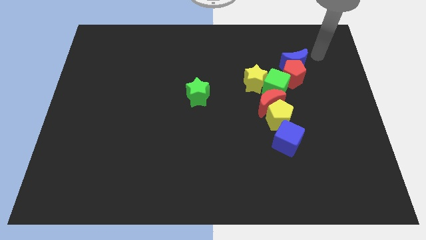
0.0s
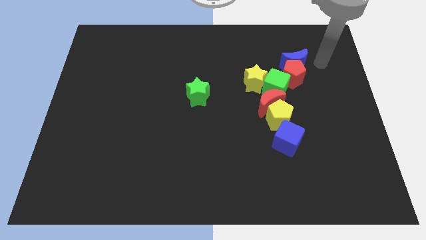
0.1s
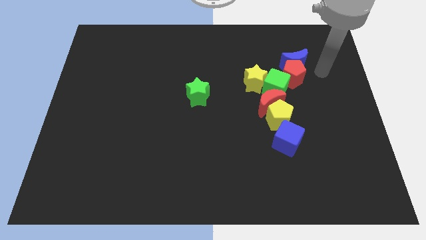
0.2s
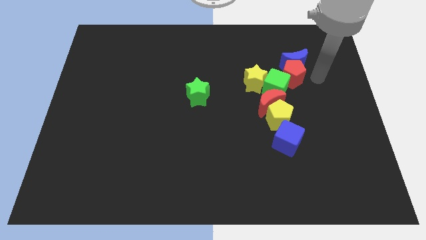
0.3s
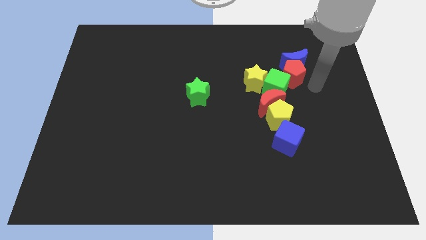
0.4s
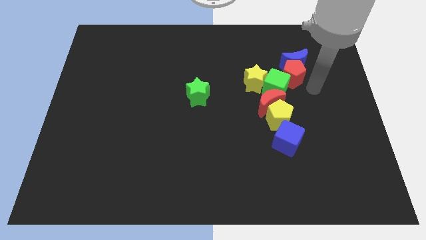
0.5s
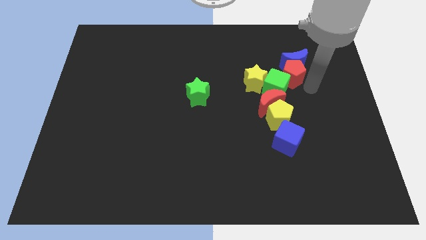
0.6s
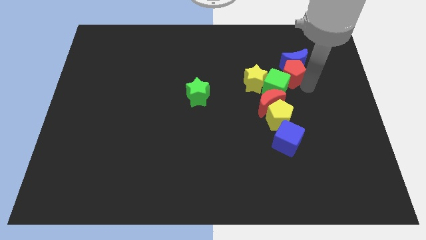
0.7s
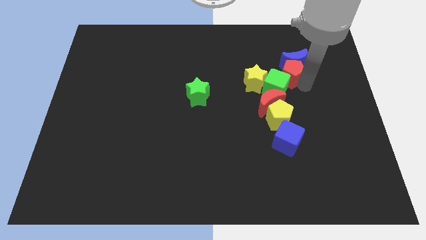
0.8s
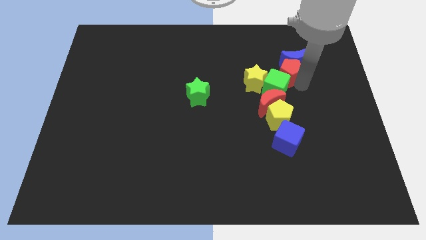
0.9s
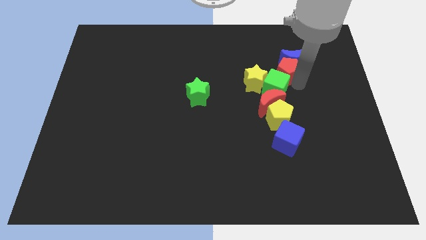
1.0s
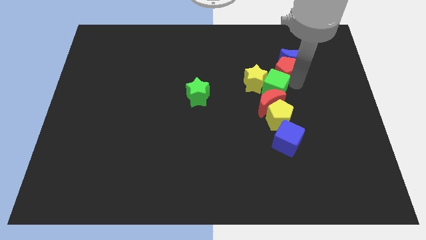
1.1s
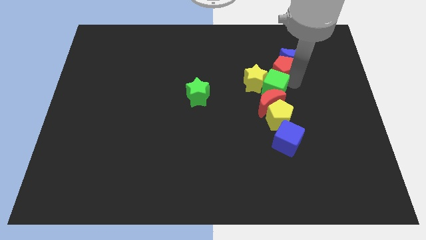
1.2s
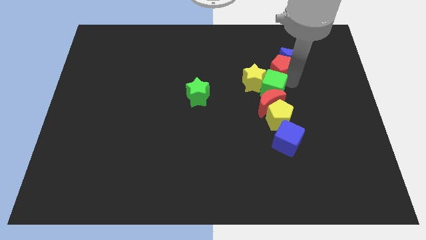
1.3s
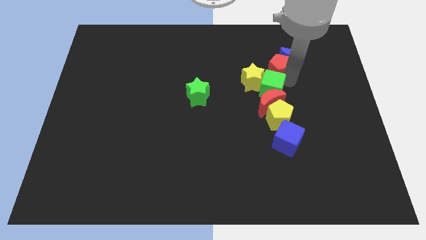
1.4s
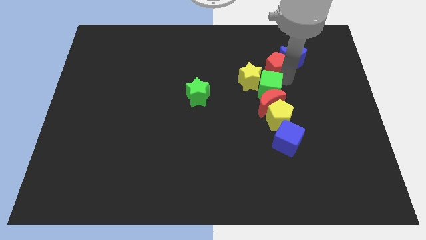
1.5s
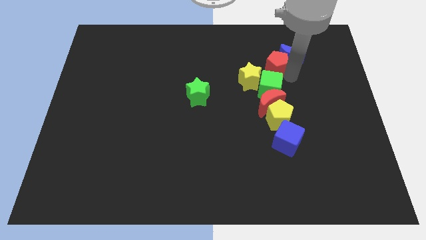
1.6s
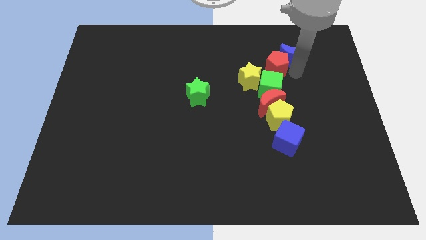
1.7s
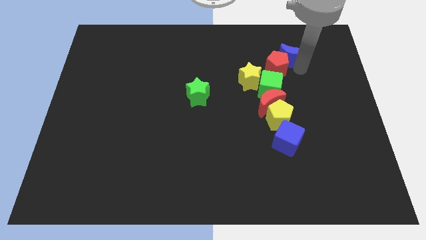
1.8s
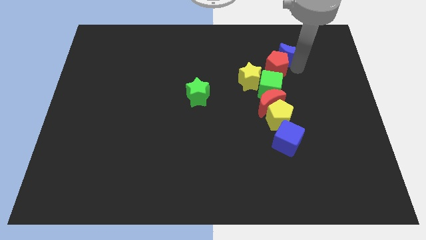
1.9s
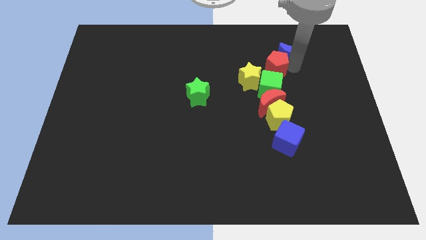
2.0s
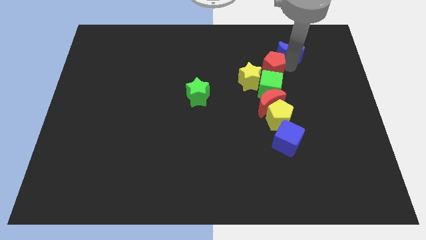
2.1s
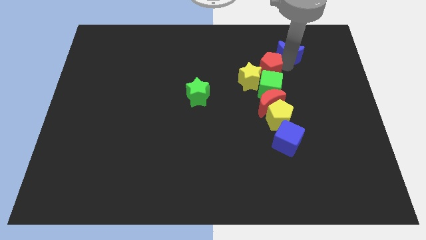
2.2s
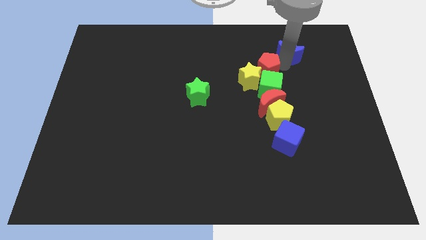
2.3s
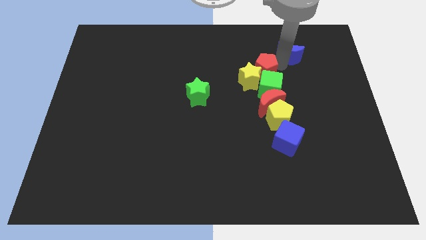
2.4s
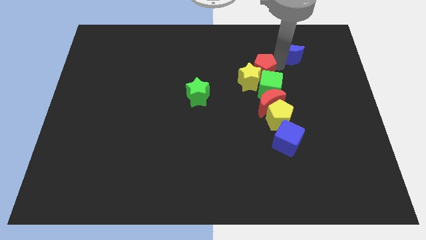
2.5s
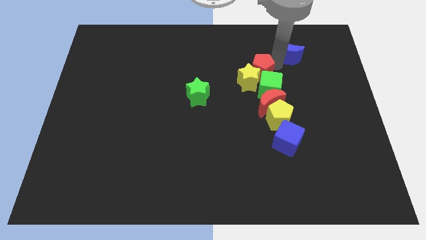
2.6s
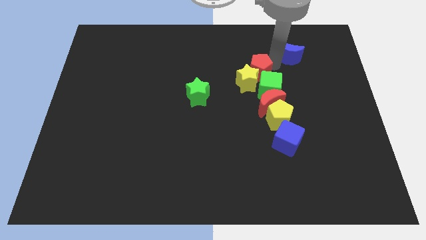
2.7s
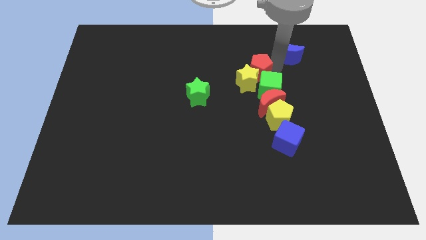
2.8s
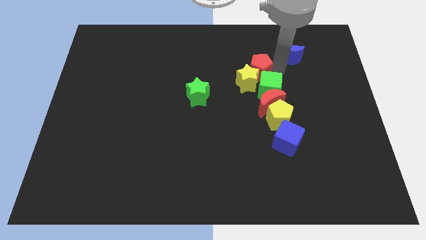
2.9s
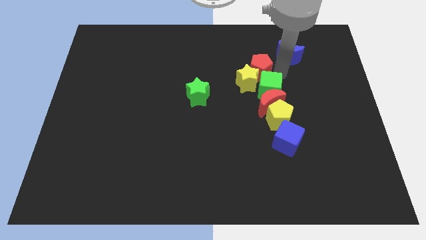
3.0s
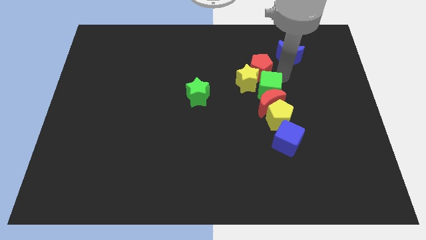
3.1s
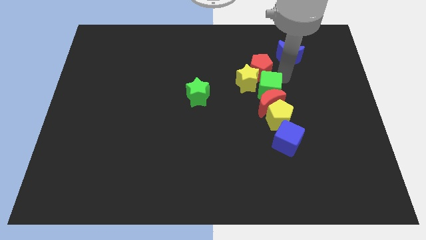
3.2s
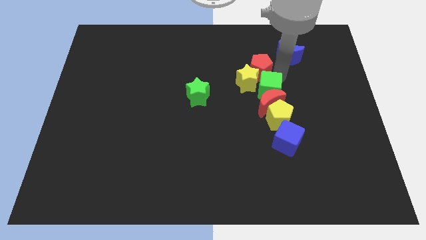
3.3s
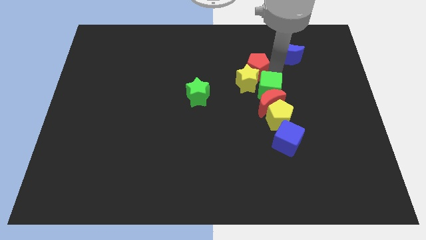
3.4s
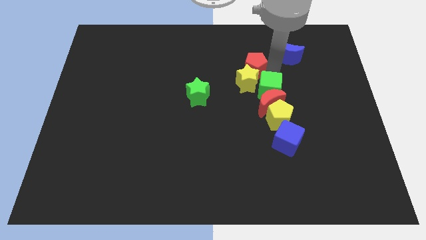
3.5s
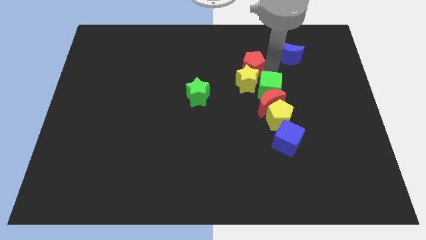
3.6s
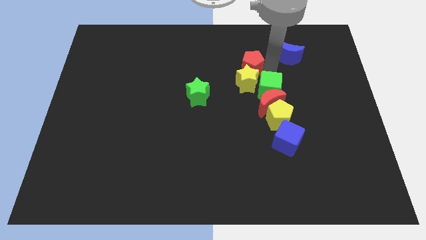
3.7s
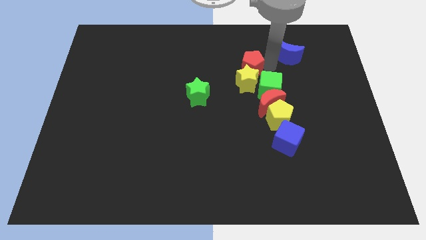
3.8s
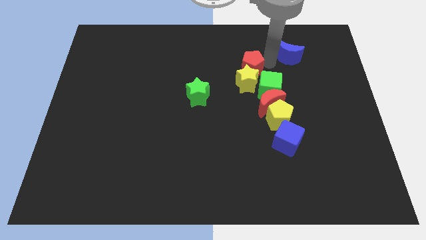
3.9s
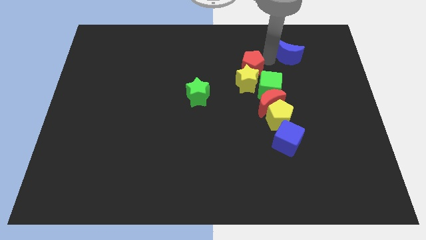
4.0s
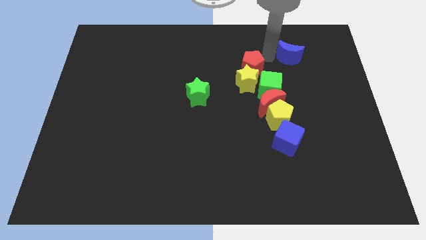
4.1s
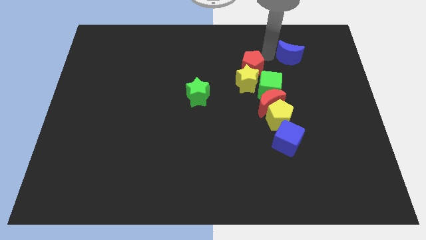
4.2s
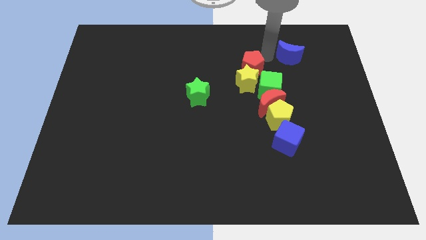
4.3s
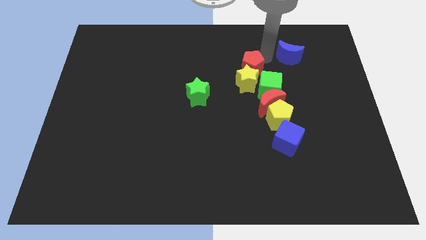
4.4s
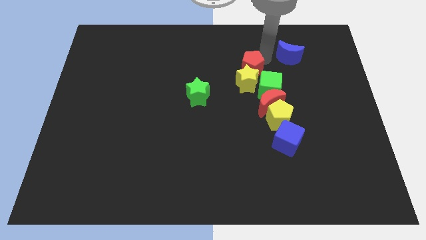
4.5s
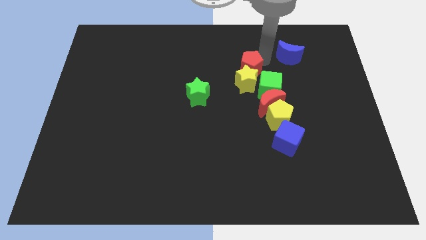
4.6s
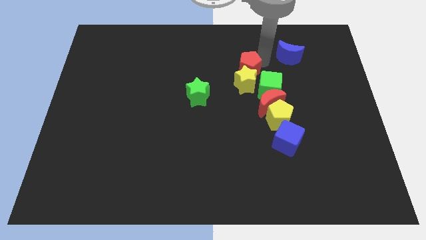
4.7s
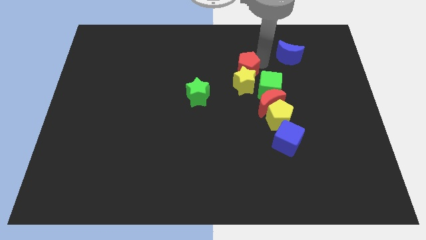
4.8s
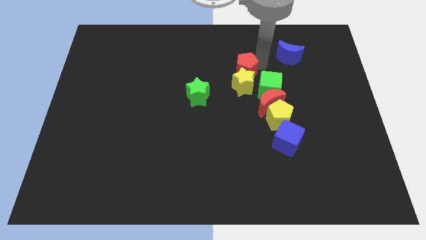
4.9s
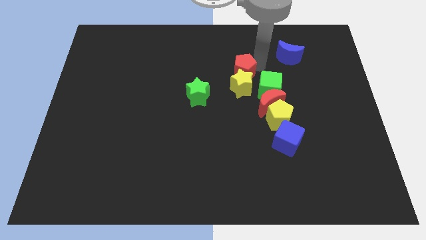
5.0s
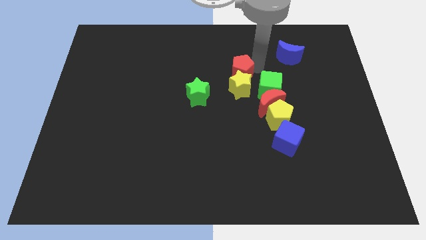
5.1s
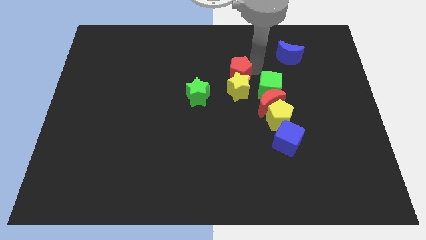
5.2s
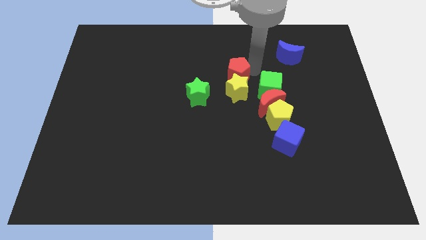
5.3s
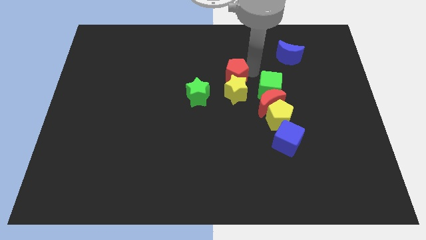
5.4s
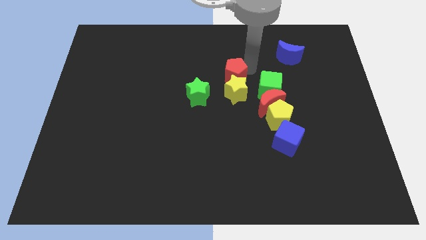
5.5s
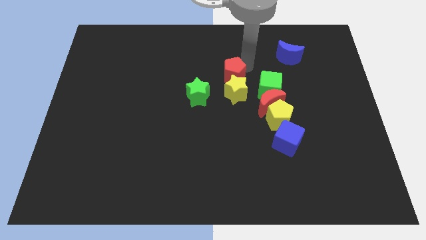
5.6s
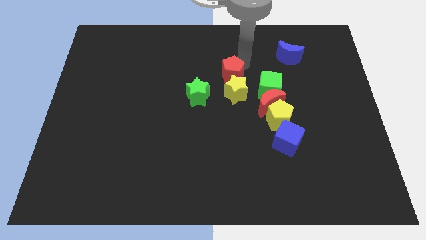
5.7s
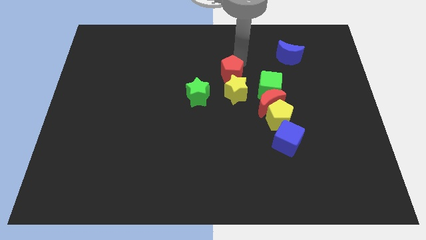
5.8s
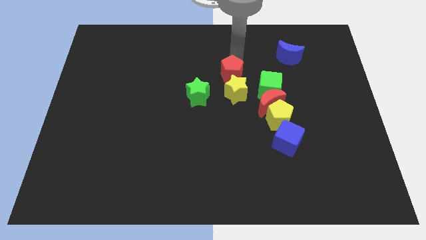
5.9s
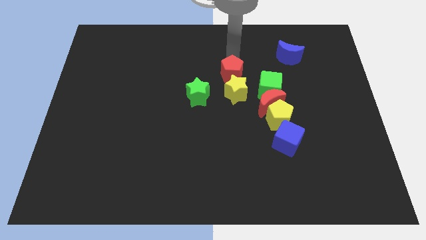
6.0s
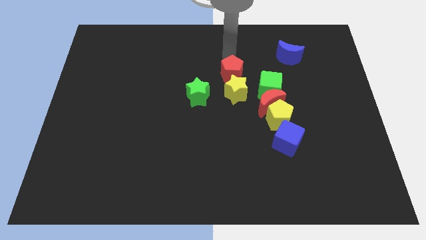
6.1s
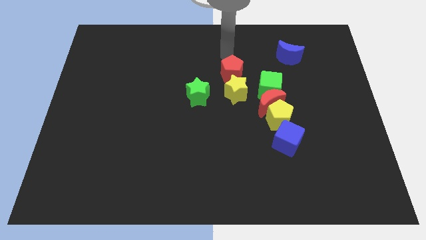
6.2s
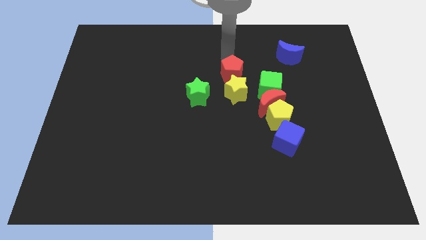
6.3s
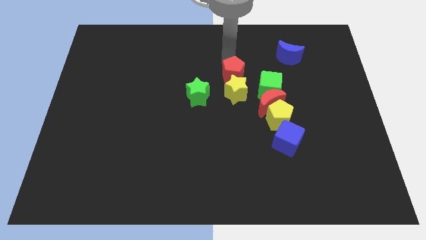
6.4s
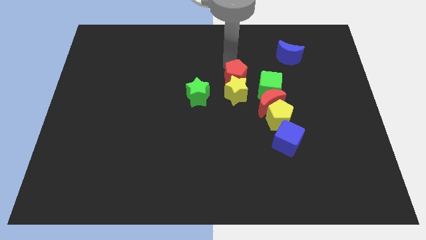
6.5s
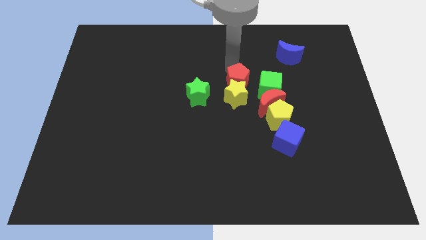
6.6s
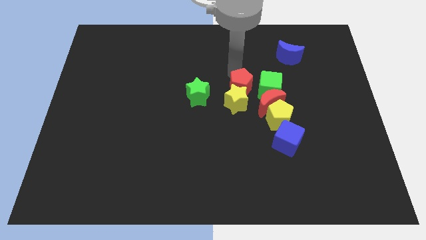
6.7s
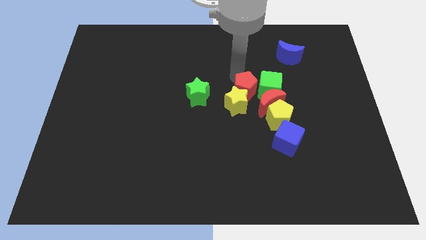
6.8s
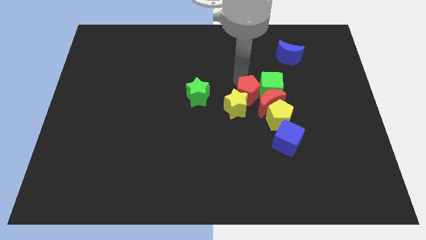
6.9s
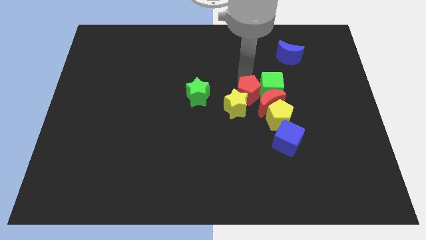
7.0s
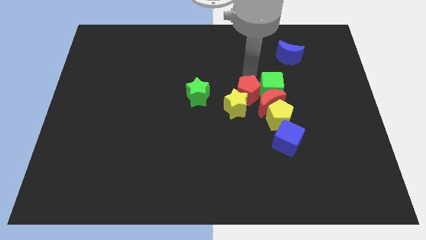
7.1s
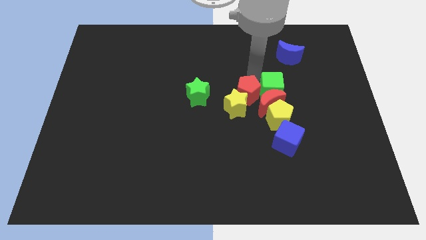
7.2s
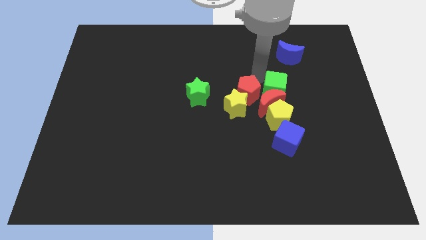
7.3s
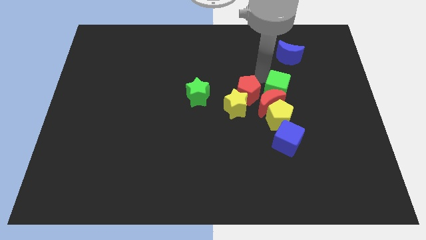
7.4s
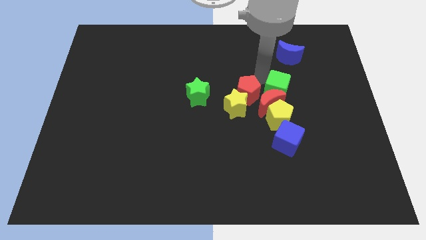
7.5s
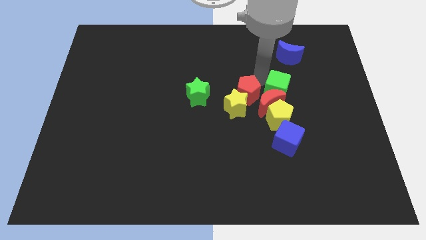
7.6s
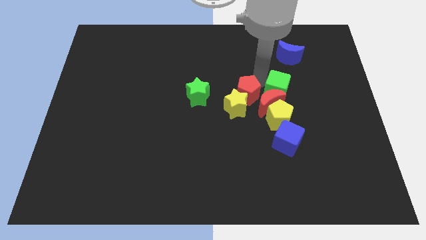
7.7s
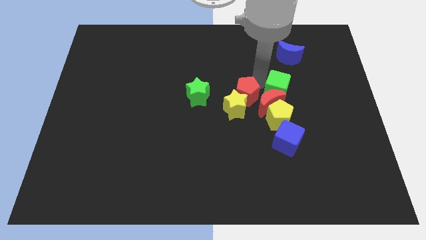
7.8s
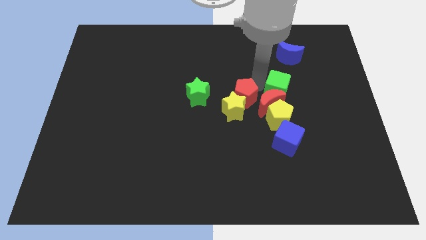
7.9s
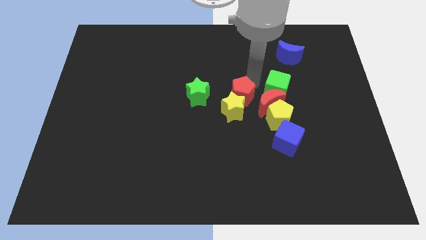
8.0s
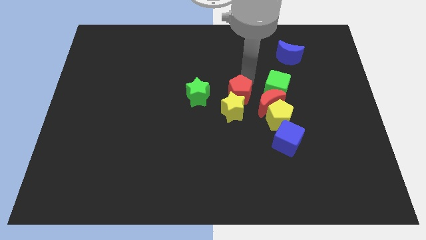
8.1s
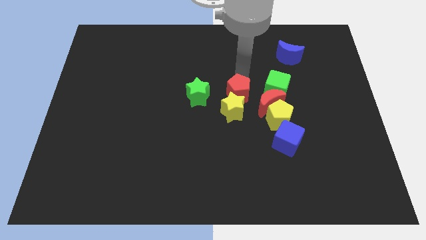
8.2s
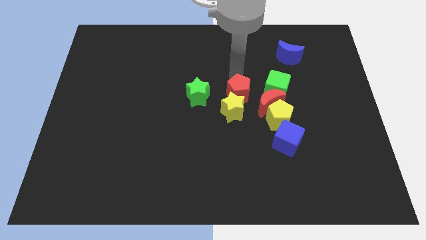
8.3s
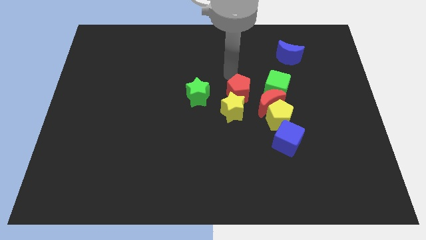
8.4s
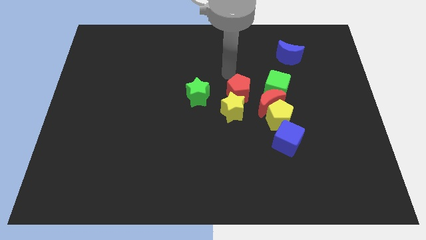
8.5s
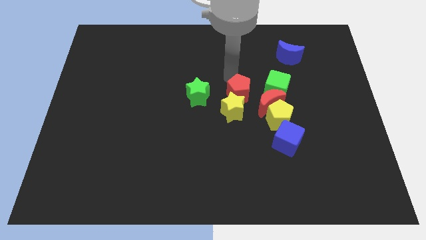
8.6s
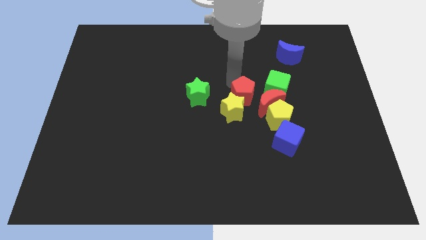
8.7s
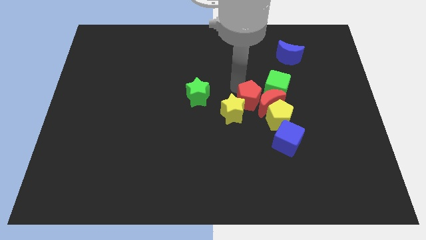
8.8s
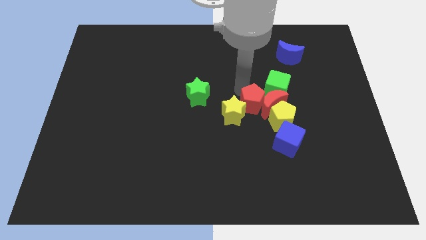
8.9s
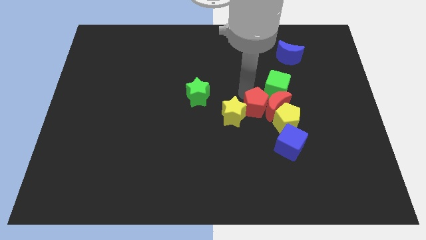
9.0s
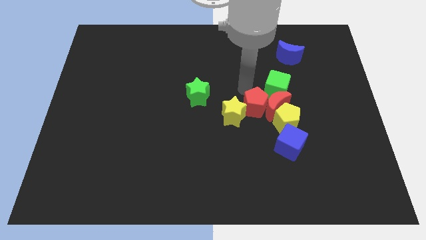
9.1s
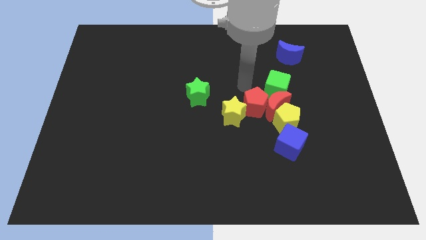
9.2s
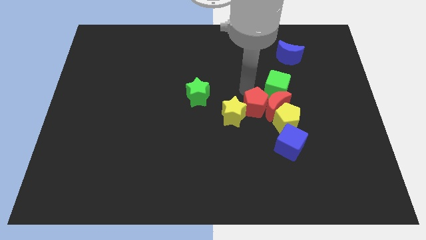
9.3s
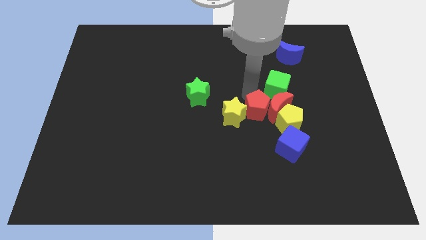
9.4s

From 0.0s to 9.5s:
put the red pentagon diagonally up and to the left of the blue cube
